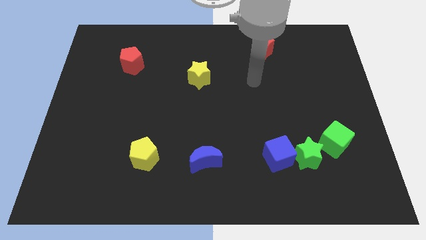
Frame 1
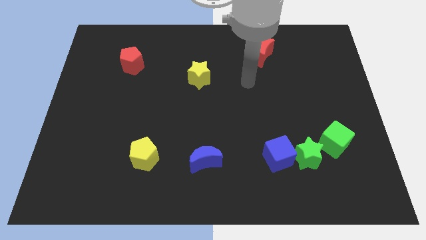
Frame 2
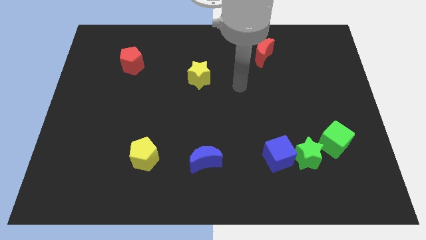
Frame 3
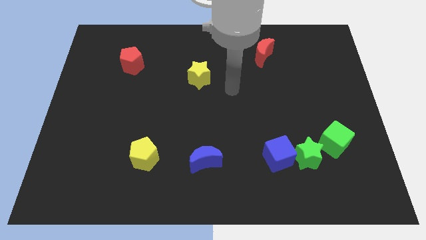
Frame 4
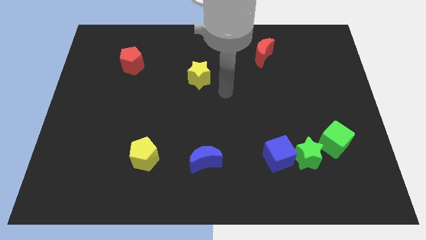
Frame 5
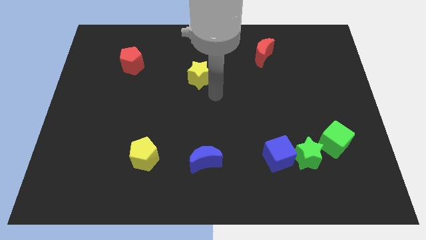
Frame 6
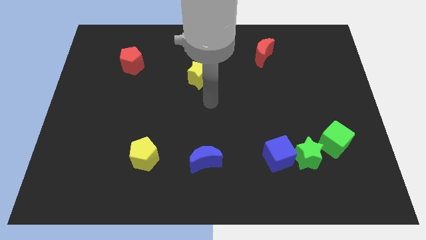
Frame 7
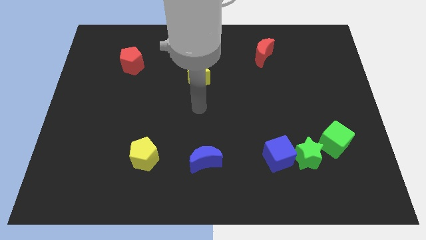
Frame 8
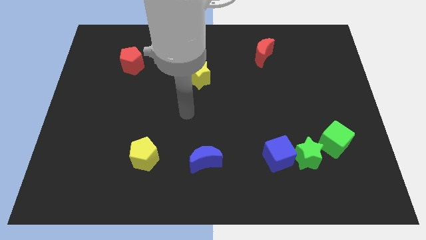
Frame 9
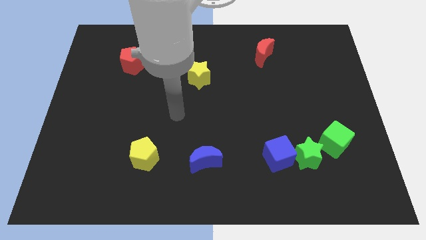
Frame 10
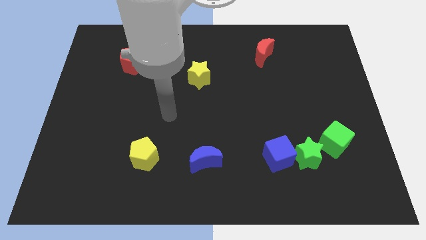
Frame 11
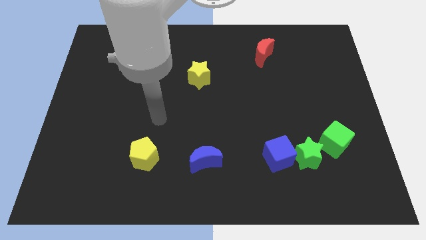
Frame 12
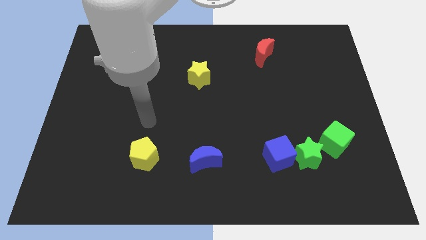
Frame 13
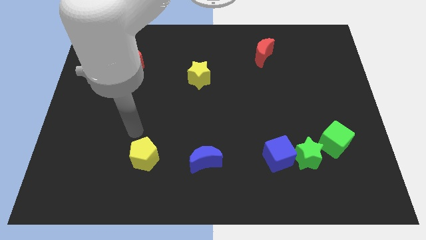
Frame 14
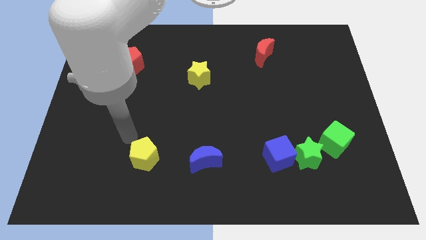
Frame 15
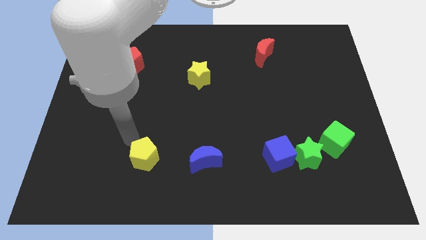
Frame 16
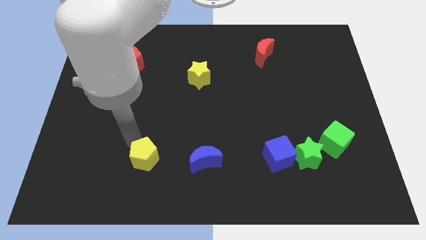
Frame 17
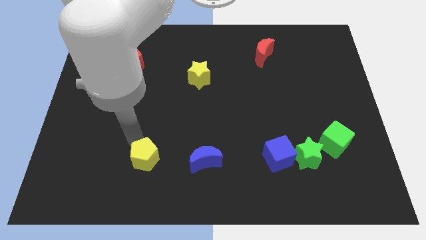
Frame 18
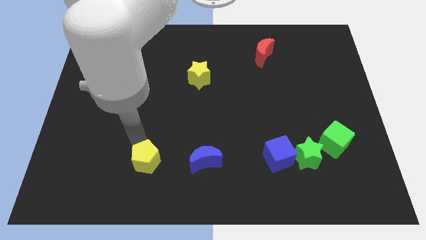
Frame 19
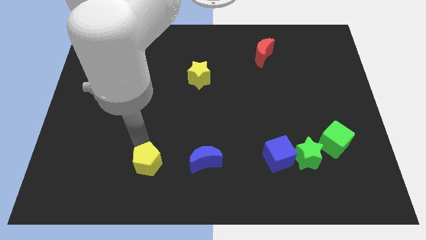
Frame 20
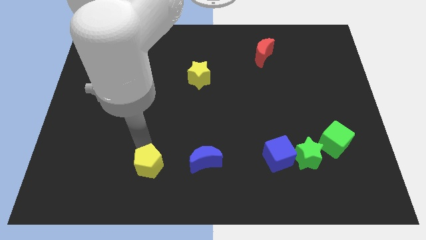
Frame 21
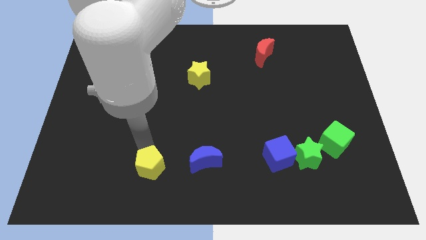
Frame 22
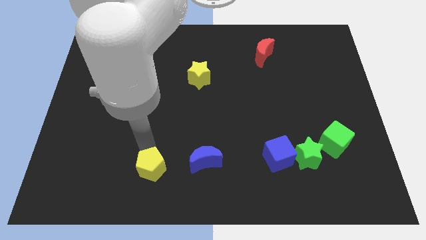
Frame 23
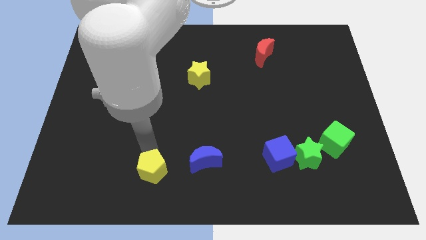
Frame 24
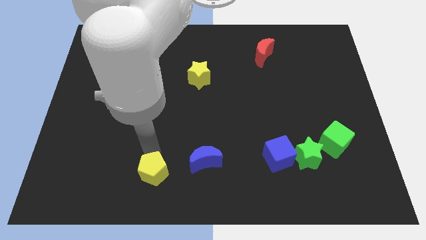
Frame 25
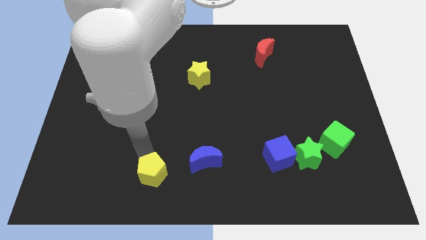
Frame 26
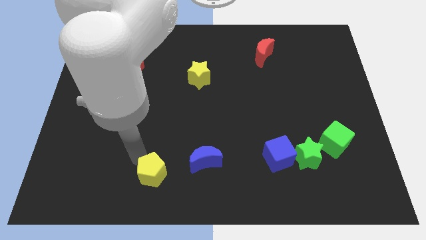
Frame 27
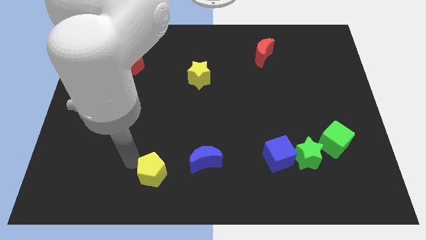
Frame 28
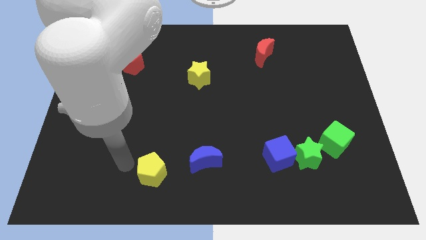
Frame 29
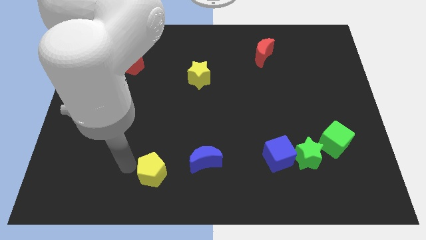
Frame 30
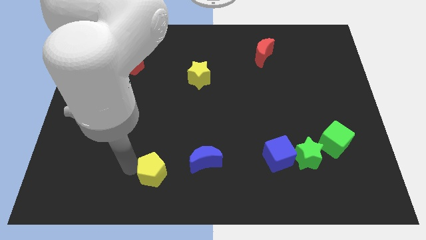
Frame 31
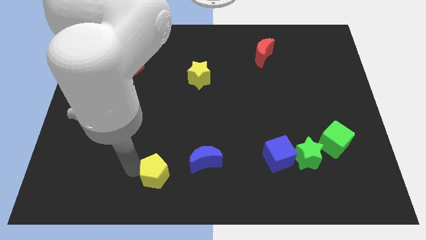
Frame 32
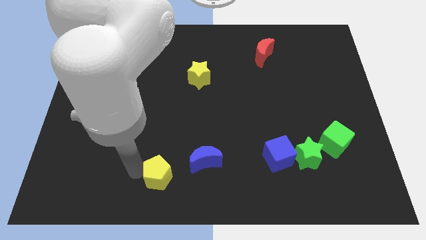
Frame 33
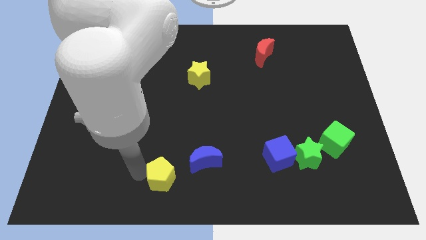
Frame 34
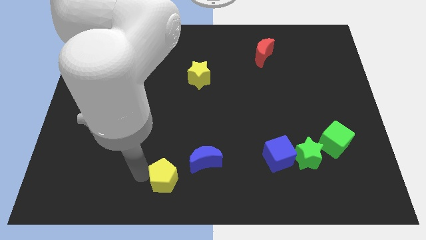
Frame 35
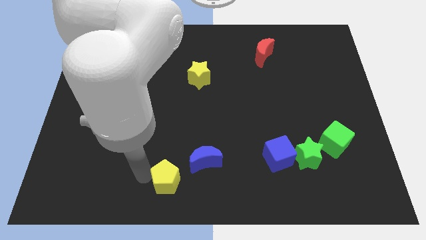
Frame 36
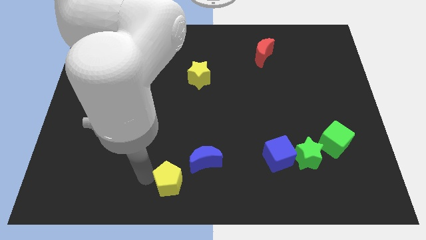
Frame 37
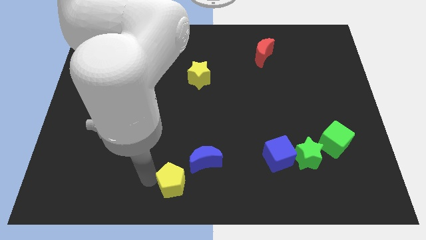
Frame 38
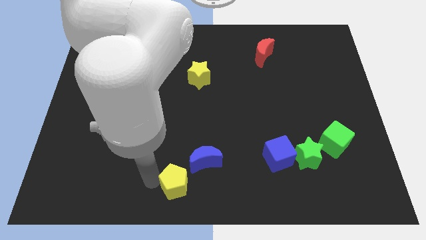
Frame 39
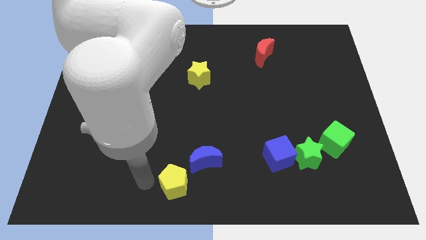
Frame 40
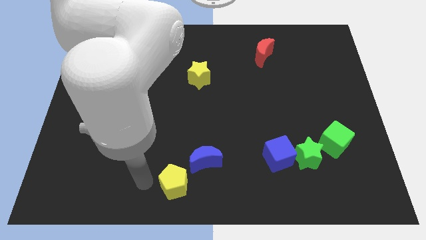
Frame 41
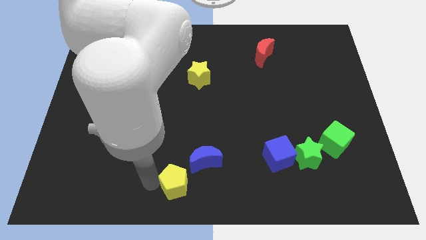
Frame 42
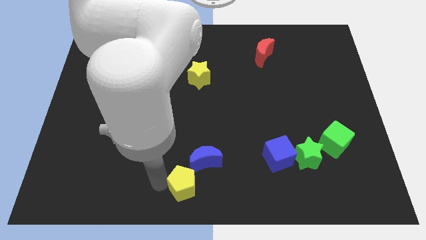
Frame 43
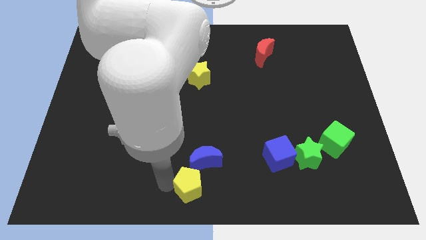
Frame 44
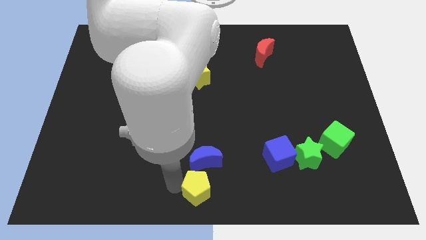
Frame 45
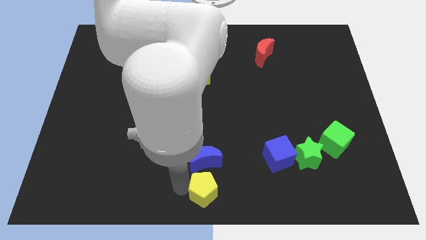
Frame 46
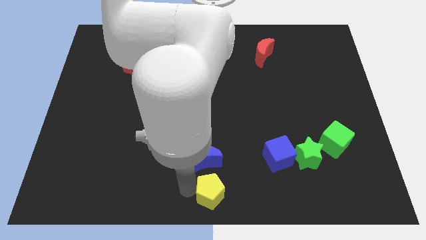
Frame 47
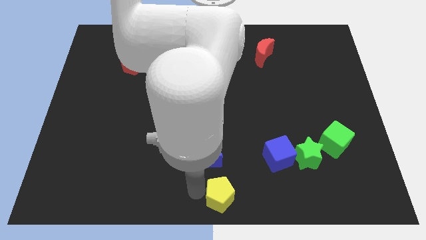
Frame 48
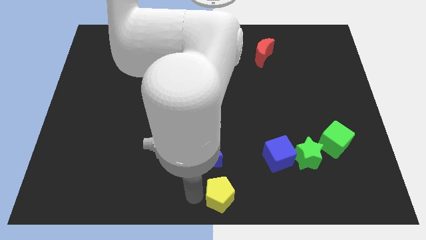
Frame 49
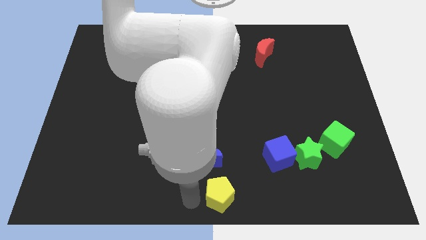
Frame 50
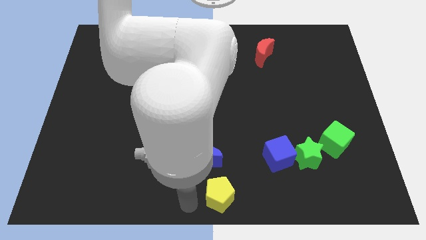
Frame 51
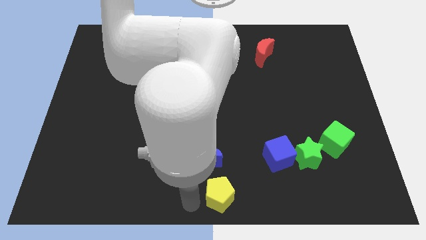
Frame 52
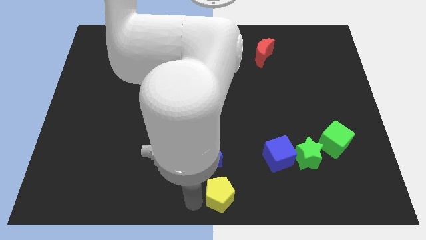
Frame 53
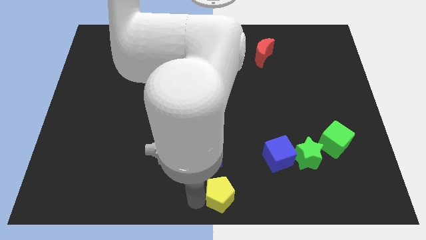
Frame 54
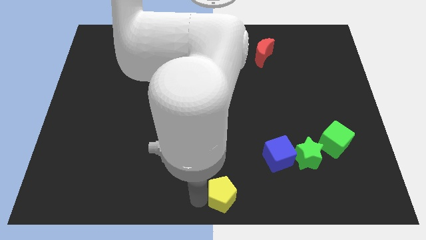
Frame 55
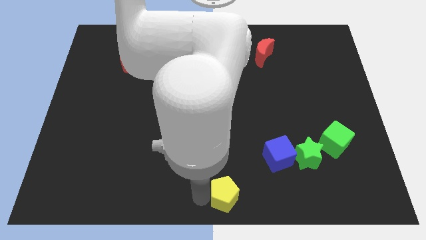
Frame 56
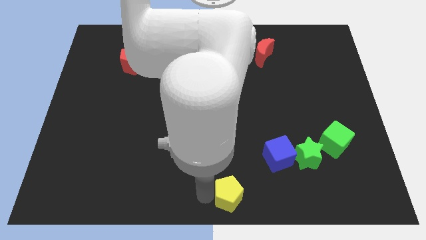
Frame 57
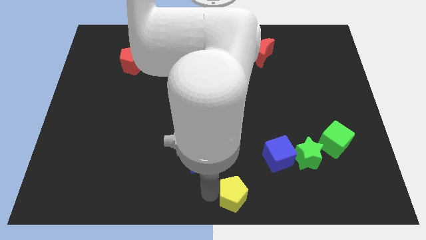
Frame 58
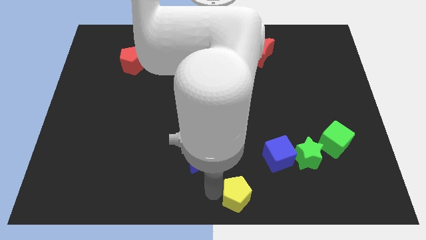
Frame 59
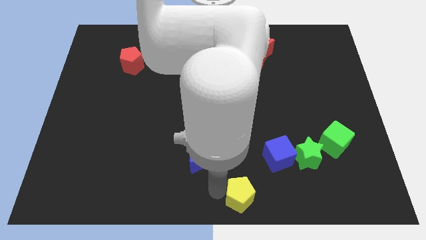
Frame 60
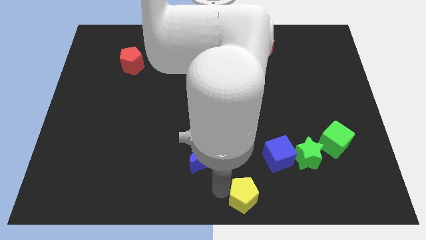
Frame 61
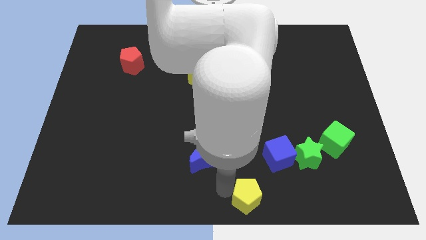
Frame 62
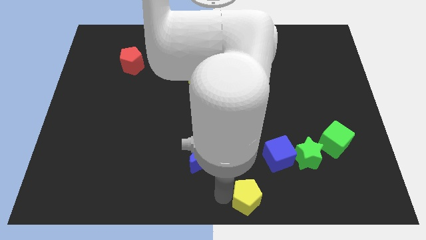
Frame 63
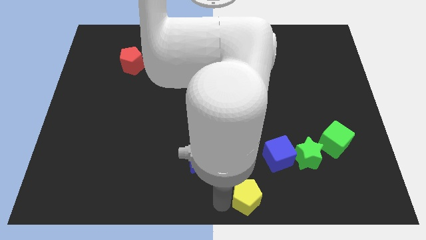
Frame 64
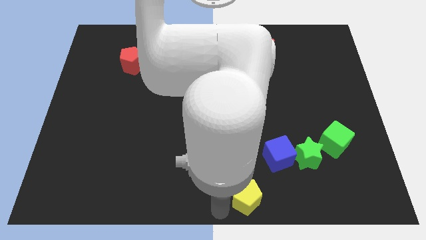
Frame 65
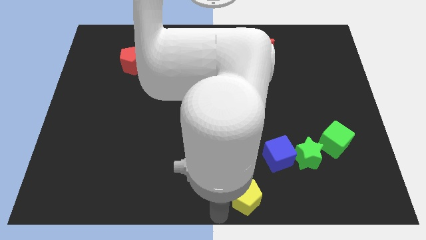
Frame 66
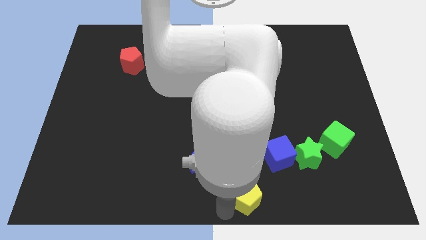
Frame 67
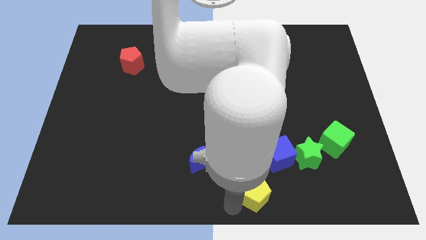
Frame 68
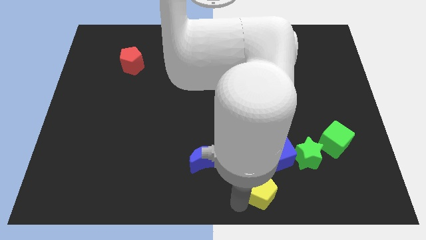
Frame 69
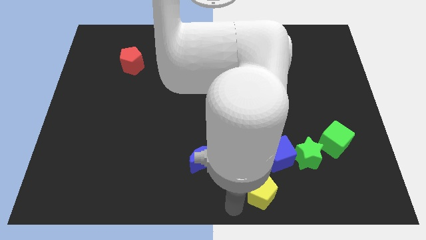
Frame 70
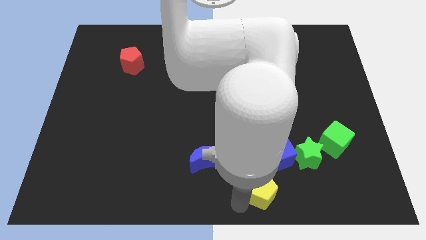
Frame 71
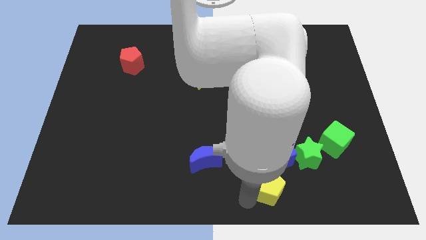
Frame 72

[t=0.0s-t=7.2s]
slide the yellow pentagon to the bottom left side of the green star

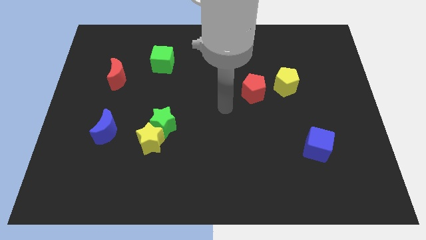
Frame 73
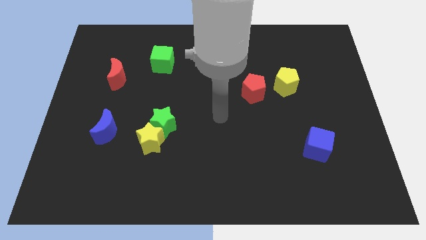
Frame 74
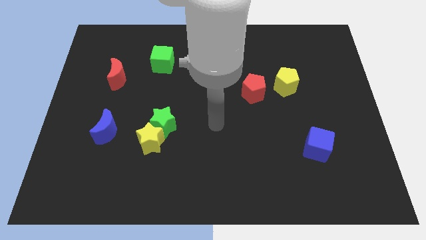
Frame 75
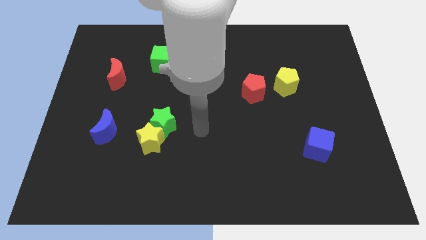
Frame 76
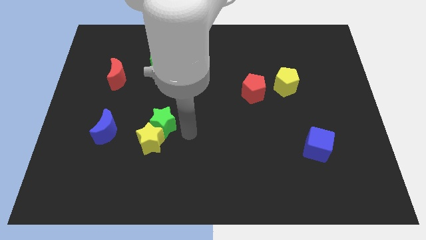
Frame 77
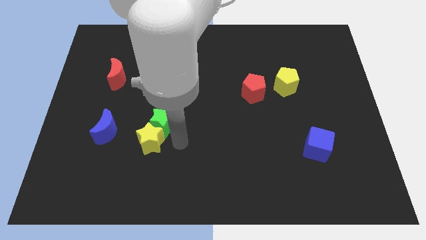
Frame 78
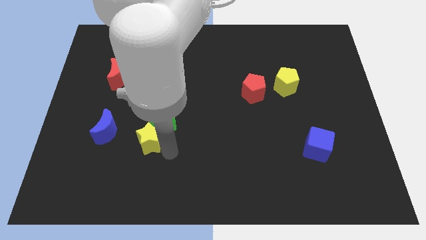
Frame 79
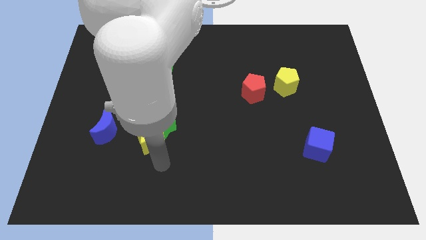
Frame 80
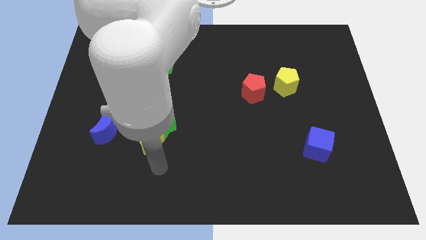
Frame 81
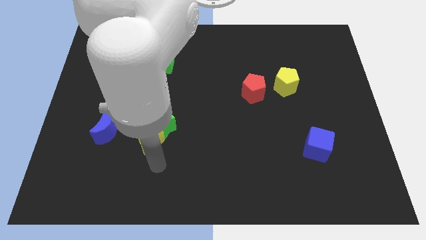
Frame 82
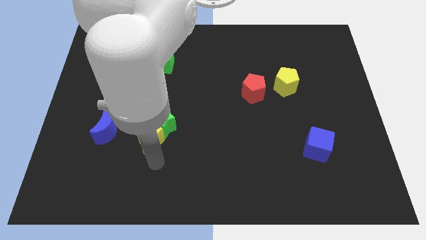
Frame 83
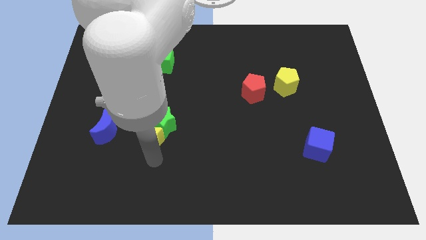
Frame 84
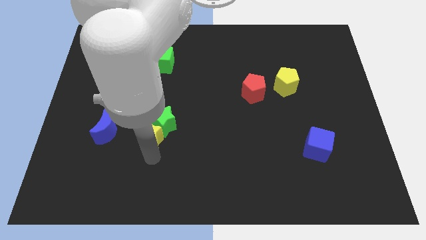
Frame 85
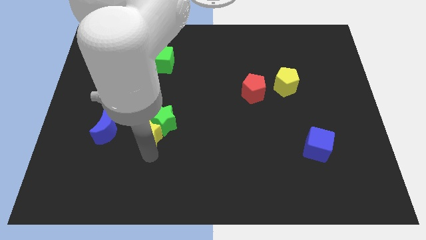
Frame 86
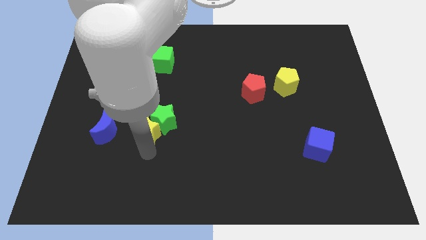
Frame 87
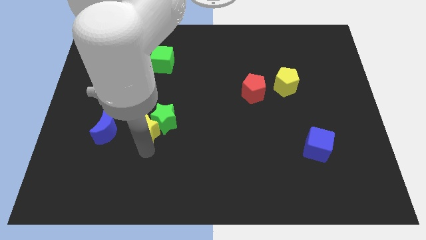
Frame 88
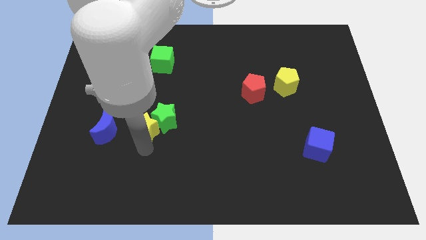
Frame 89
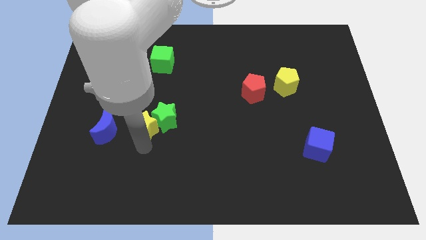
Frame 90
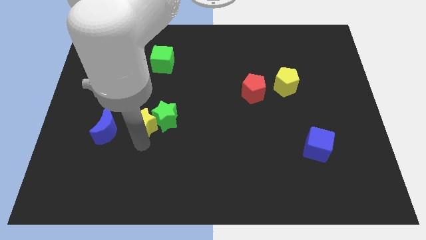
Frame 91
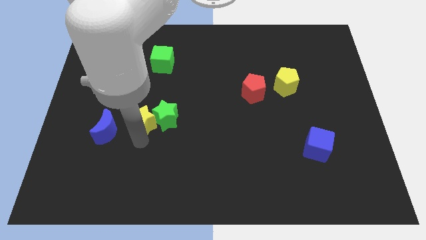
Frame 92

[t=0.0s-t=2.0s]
put the yellow star diagonally up and to the left of the green star
